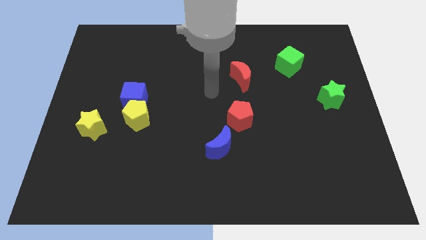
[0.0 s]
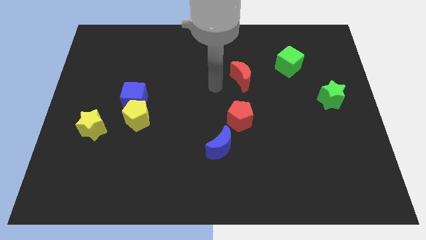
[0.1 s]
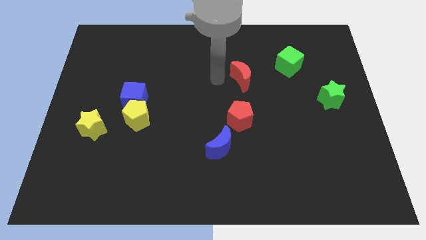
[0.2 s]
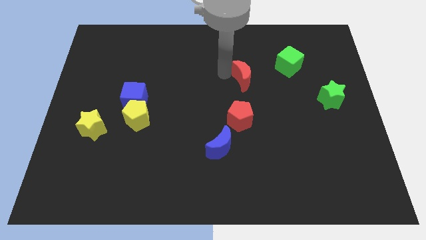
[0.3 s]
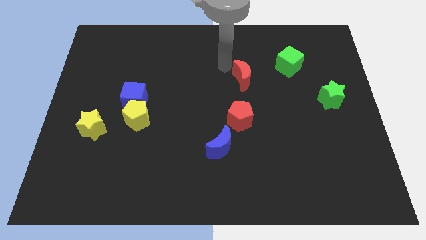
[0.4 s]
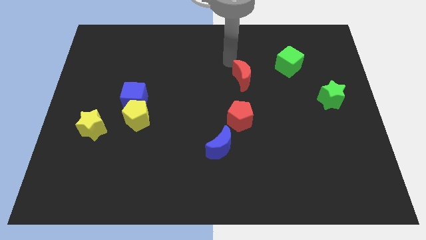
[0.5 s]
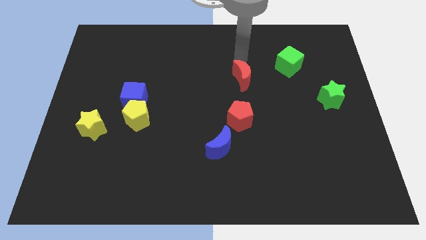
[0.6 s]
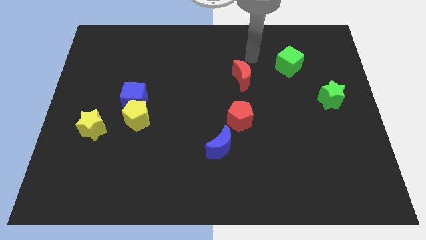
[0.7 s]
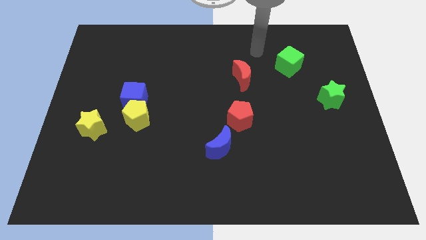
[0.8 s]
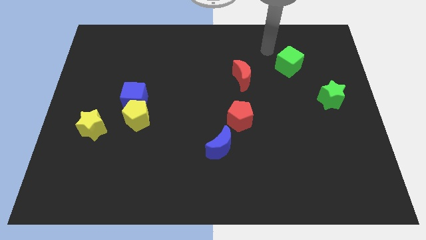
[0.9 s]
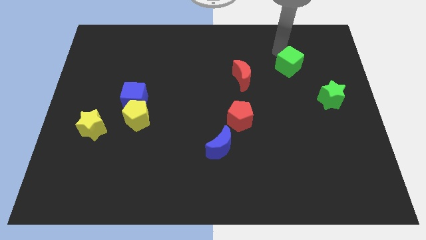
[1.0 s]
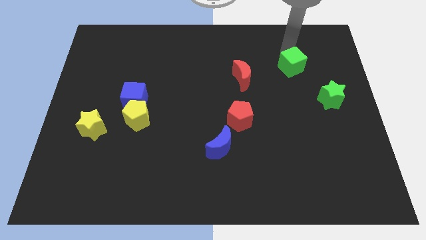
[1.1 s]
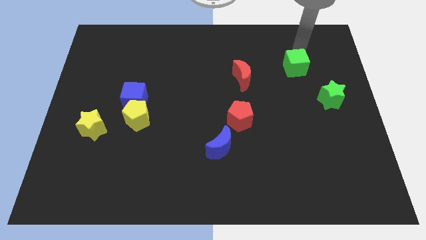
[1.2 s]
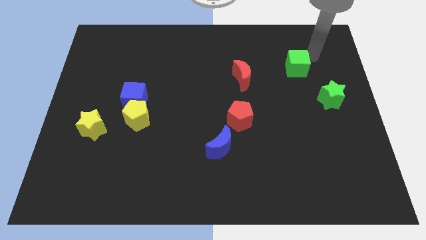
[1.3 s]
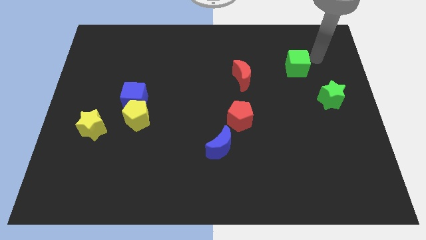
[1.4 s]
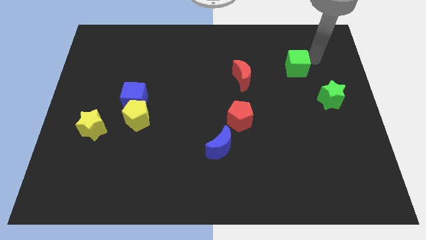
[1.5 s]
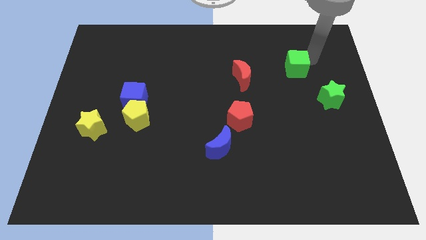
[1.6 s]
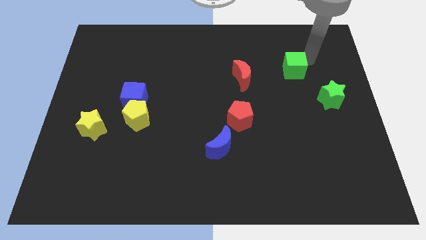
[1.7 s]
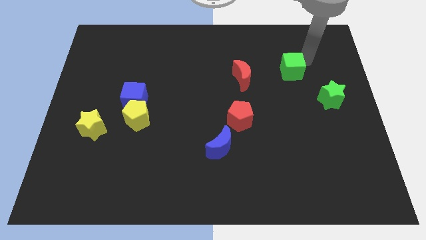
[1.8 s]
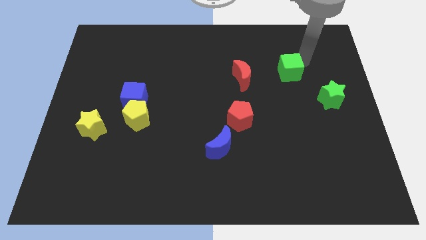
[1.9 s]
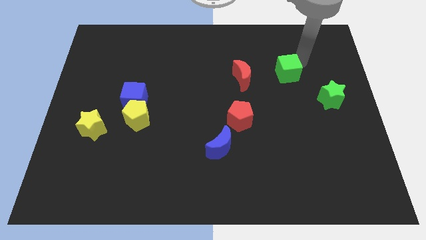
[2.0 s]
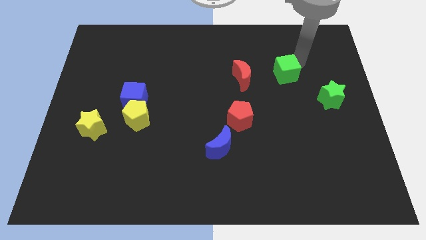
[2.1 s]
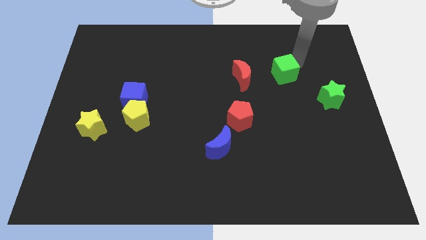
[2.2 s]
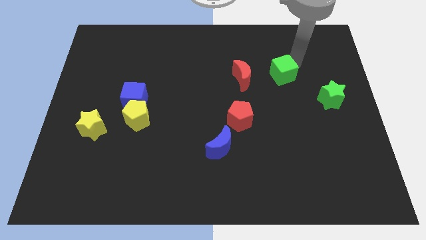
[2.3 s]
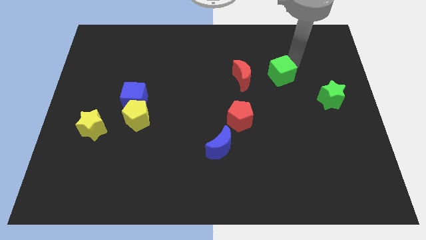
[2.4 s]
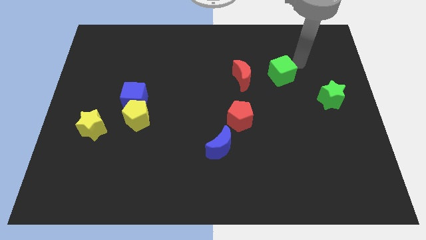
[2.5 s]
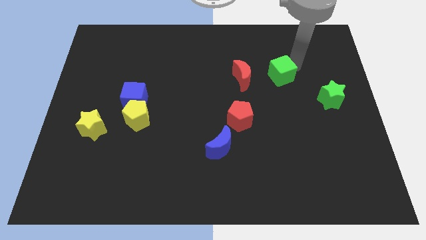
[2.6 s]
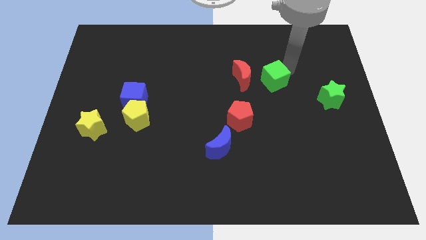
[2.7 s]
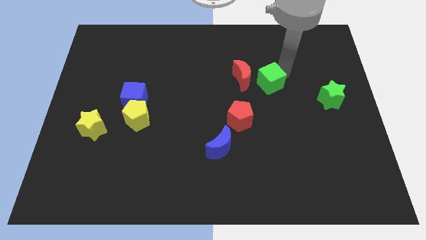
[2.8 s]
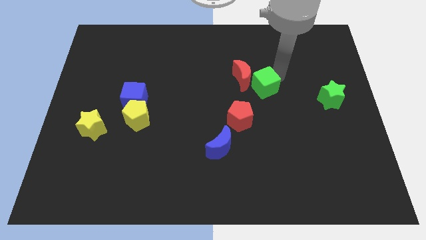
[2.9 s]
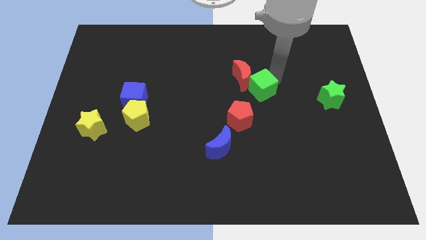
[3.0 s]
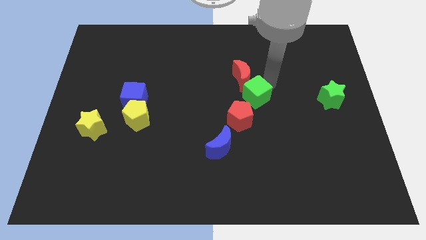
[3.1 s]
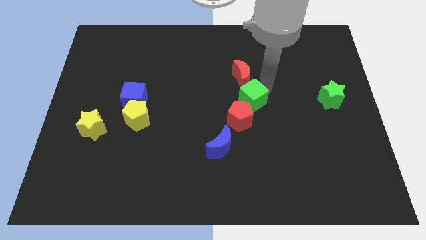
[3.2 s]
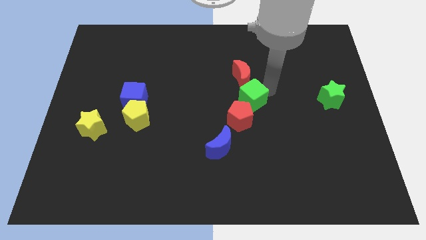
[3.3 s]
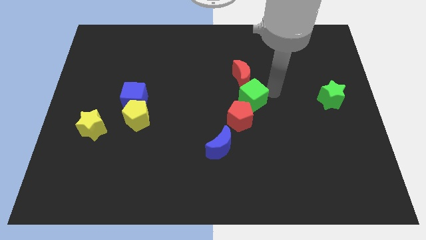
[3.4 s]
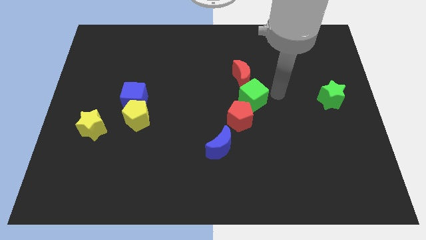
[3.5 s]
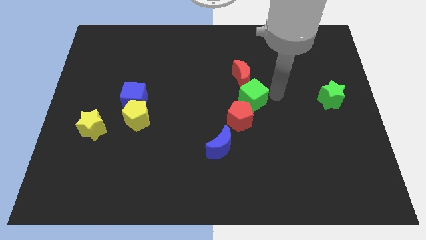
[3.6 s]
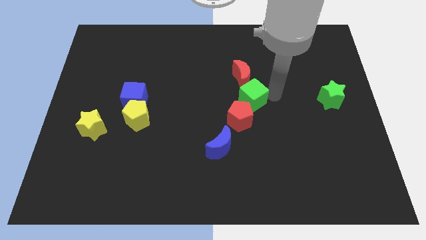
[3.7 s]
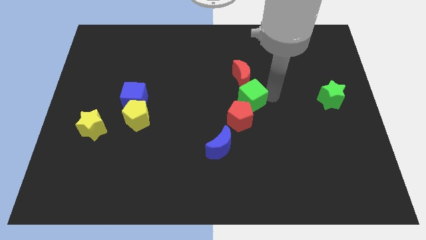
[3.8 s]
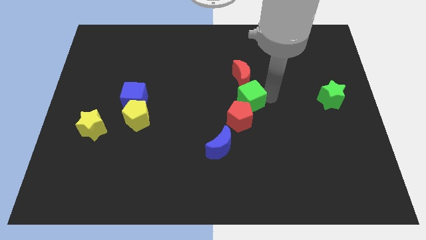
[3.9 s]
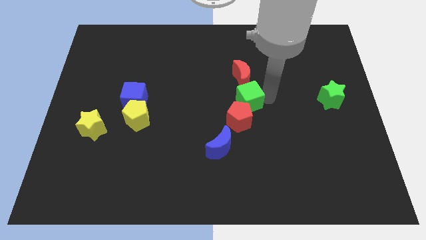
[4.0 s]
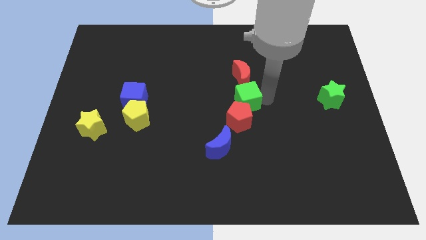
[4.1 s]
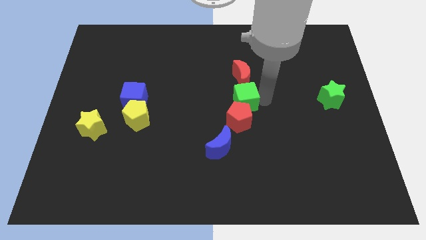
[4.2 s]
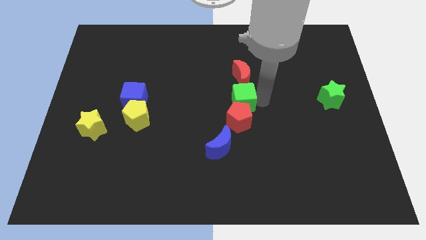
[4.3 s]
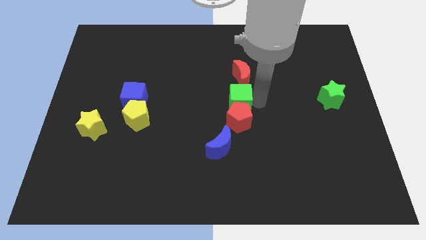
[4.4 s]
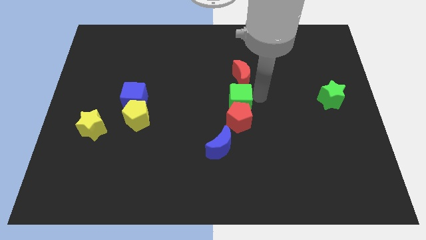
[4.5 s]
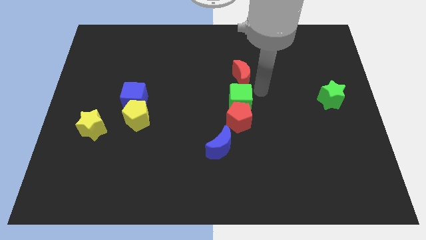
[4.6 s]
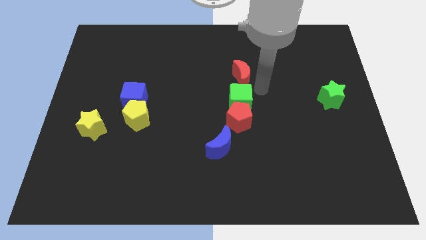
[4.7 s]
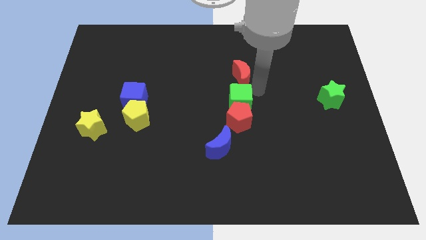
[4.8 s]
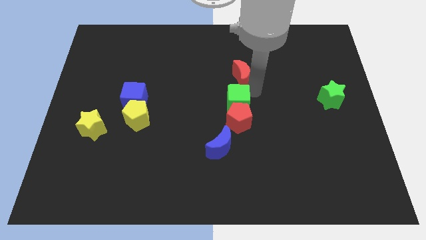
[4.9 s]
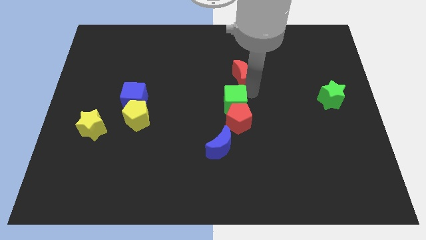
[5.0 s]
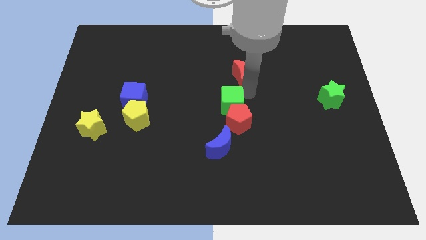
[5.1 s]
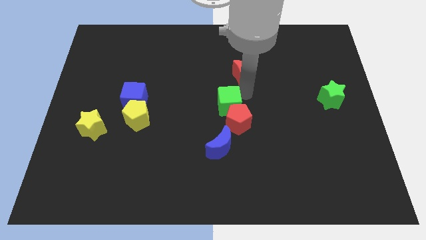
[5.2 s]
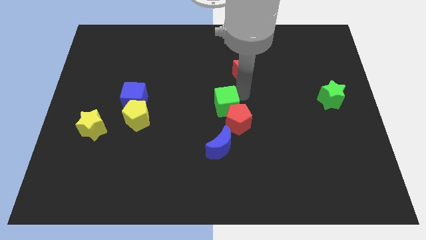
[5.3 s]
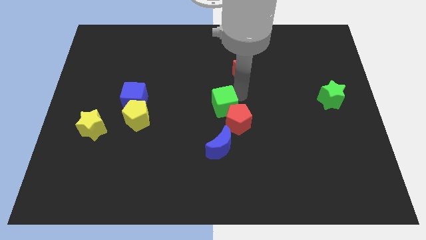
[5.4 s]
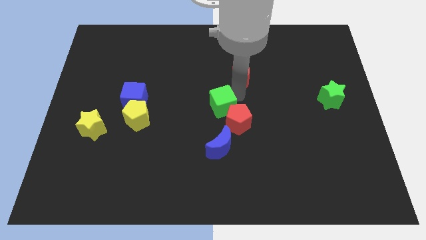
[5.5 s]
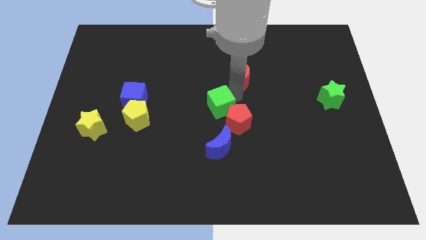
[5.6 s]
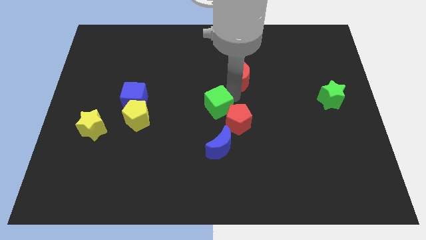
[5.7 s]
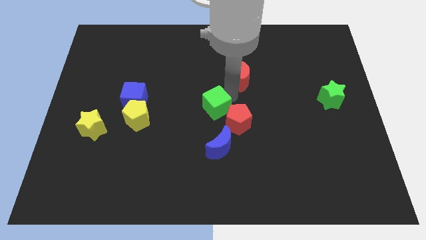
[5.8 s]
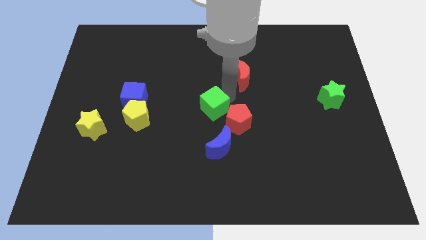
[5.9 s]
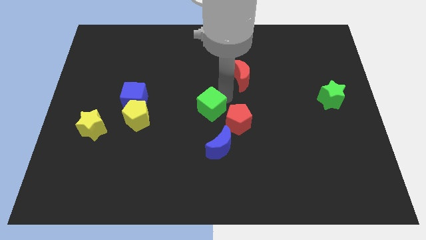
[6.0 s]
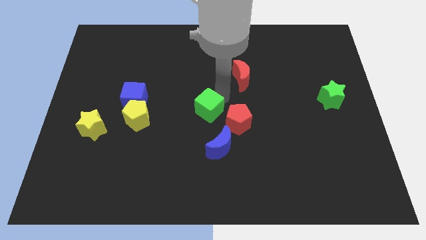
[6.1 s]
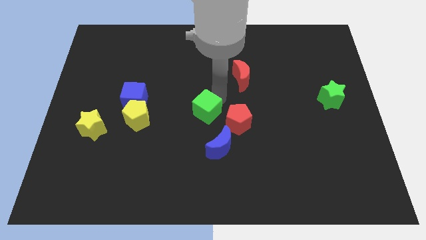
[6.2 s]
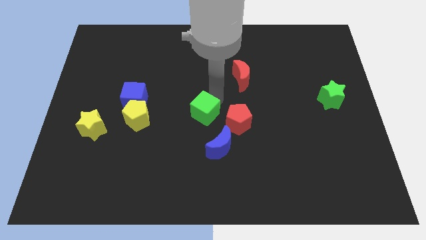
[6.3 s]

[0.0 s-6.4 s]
put the green cube to the top left of the blue moon

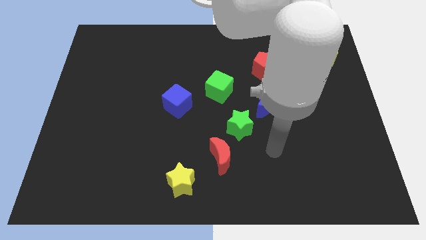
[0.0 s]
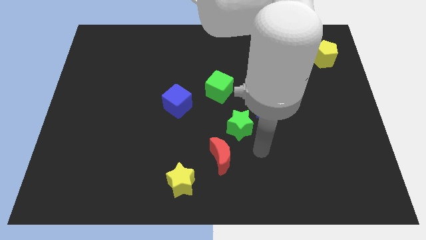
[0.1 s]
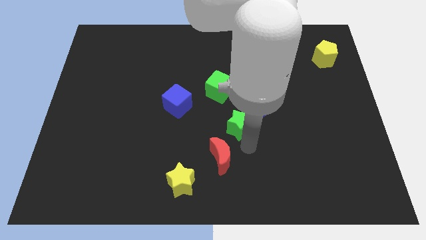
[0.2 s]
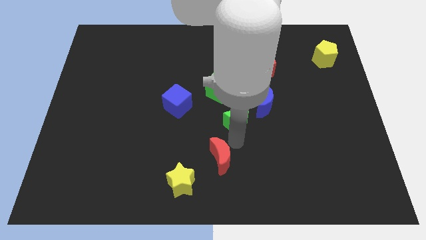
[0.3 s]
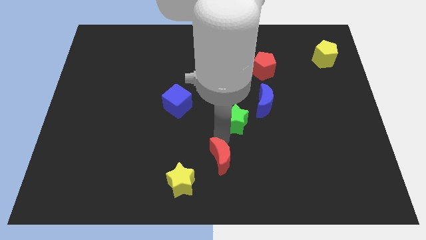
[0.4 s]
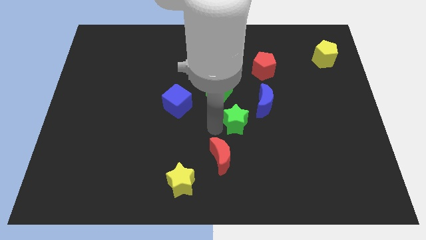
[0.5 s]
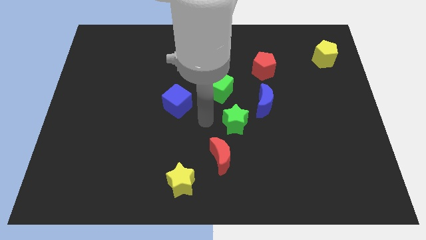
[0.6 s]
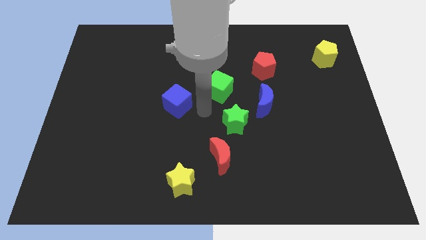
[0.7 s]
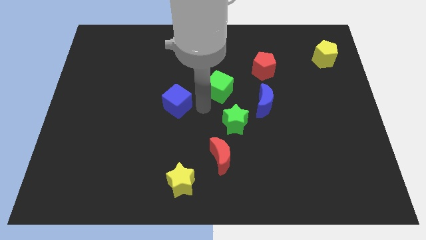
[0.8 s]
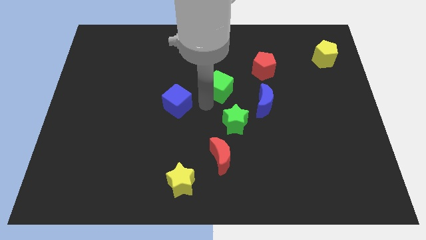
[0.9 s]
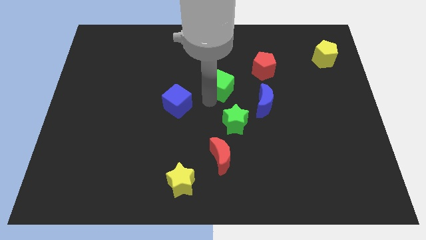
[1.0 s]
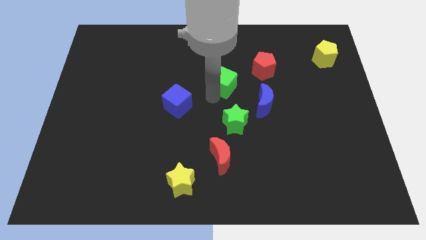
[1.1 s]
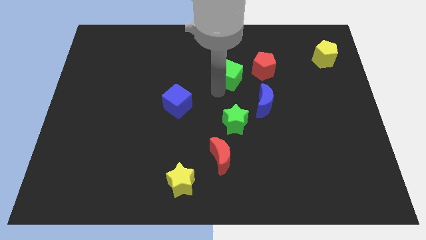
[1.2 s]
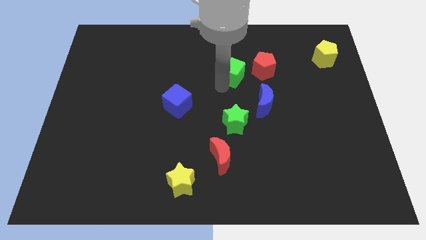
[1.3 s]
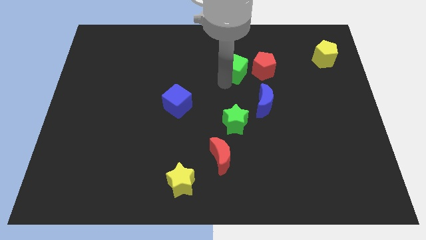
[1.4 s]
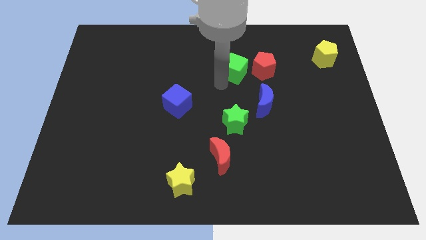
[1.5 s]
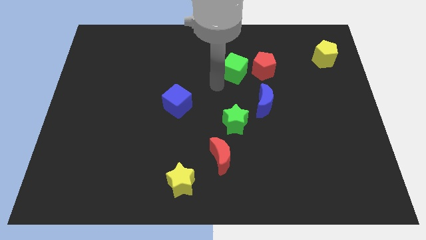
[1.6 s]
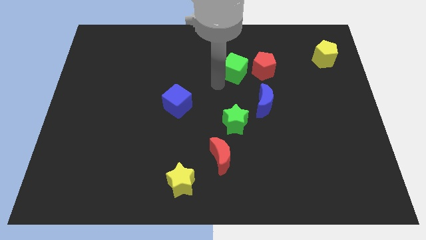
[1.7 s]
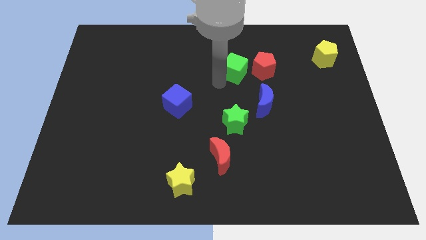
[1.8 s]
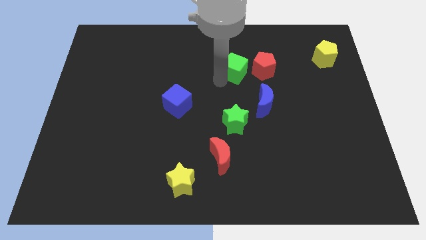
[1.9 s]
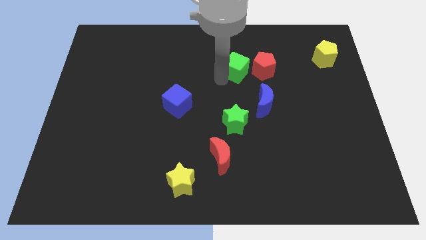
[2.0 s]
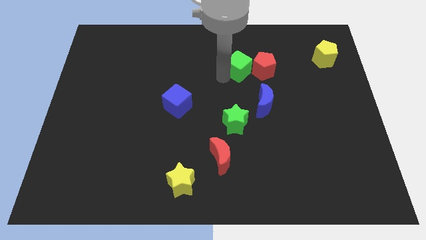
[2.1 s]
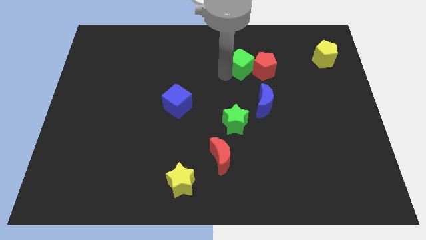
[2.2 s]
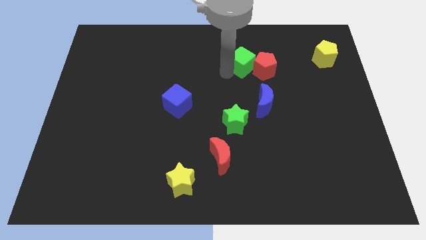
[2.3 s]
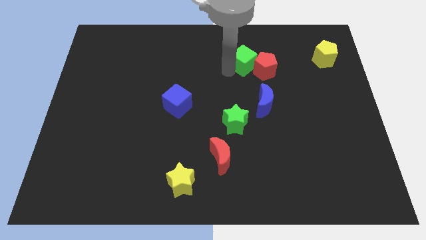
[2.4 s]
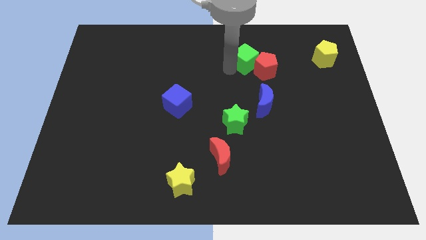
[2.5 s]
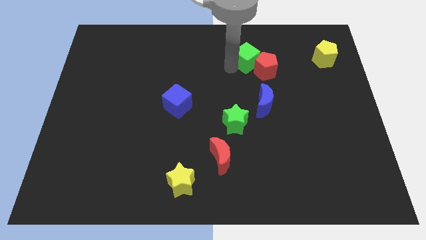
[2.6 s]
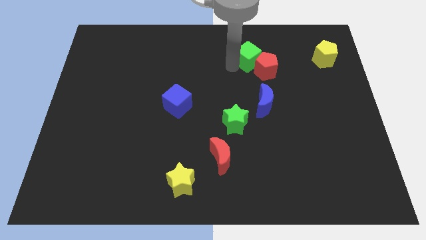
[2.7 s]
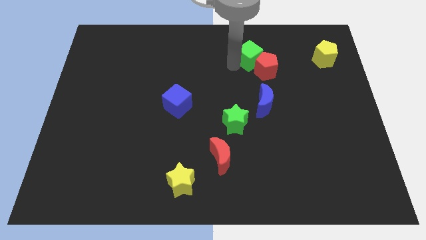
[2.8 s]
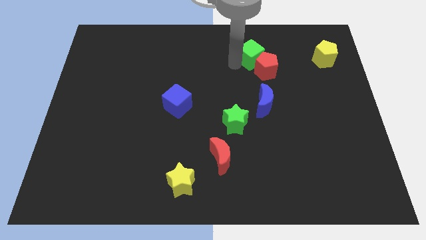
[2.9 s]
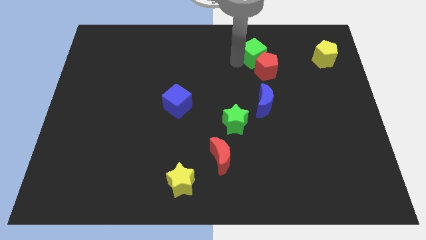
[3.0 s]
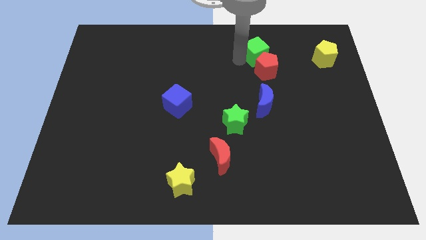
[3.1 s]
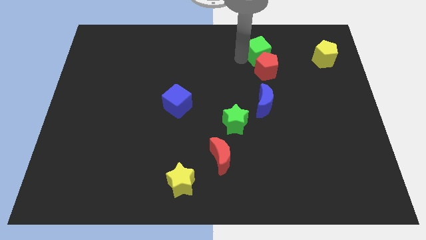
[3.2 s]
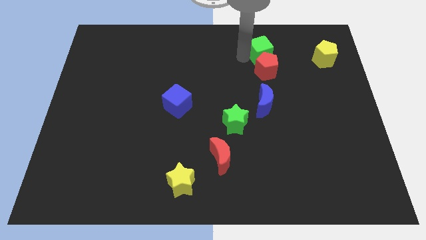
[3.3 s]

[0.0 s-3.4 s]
put the green cube to the top right of the red pentagon
